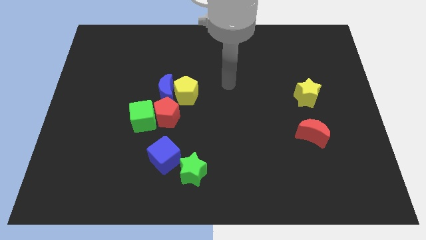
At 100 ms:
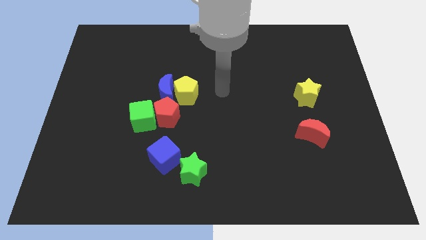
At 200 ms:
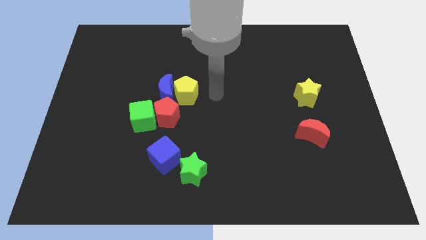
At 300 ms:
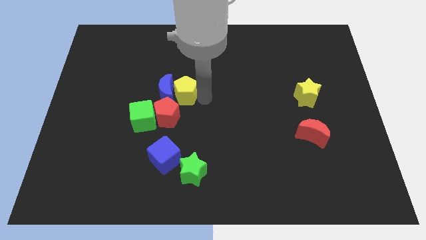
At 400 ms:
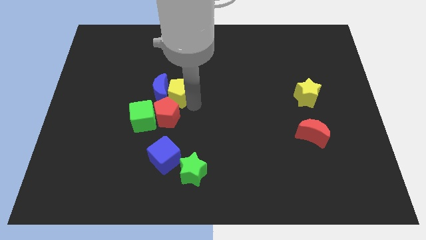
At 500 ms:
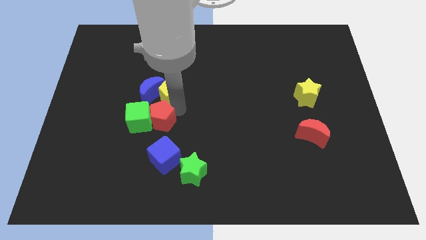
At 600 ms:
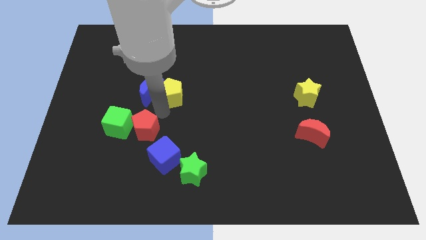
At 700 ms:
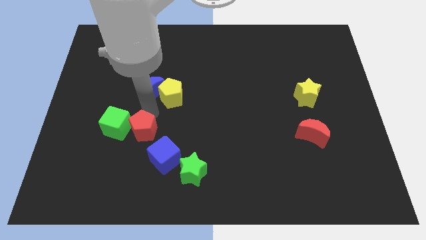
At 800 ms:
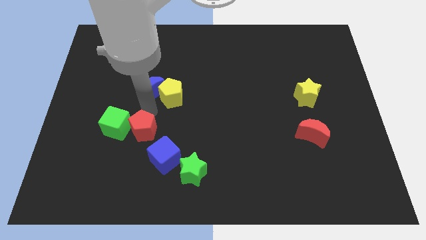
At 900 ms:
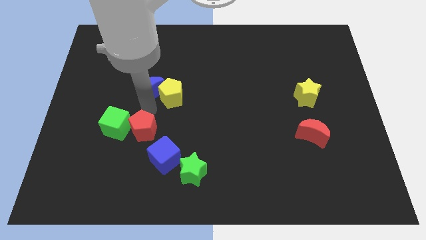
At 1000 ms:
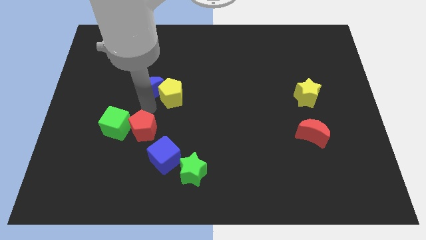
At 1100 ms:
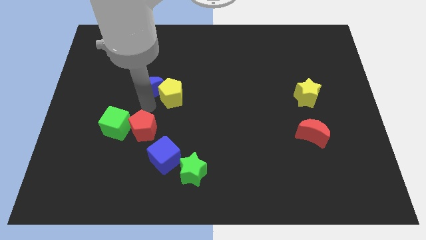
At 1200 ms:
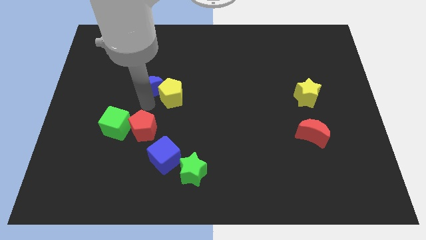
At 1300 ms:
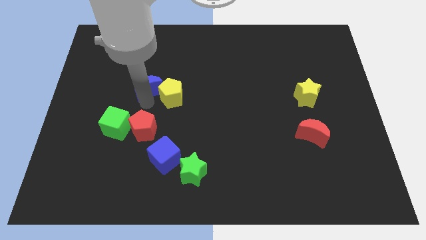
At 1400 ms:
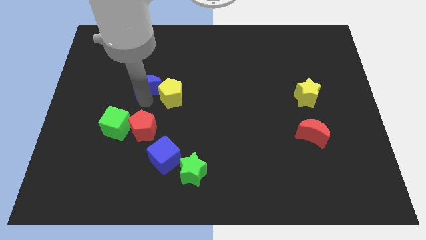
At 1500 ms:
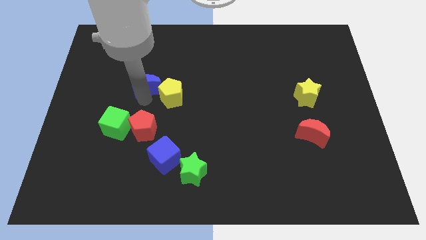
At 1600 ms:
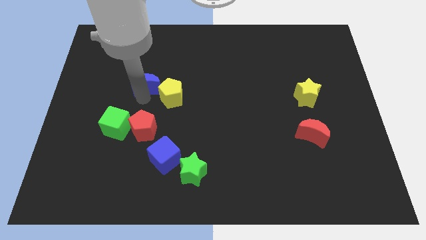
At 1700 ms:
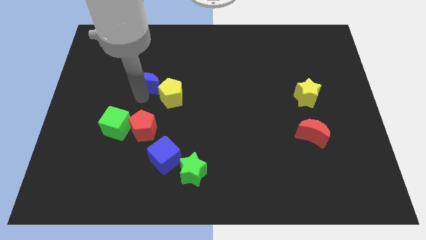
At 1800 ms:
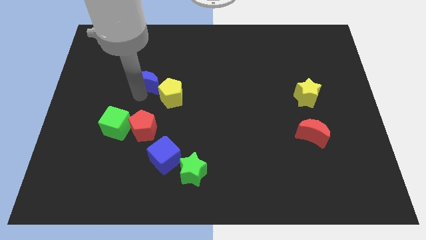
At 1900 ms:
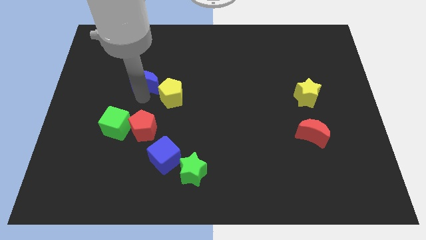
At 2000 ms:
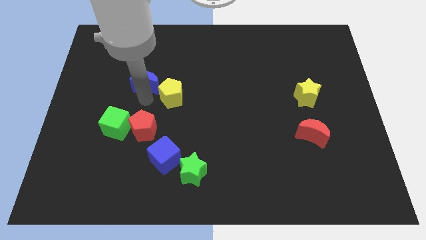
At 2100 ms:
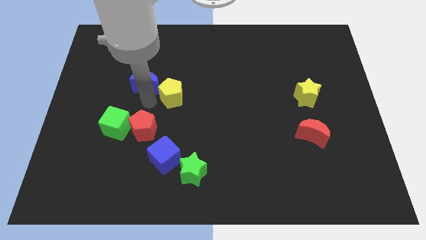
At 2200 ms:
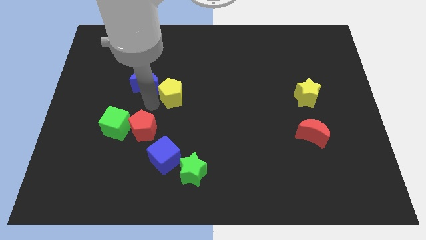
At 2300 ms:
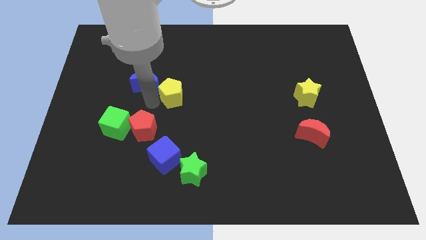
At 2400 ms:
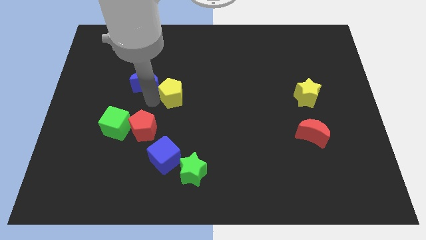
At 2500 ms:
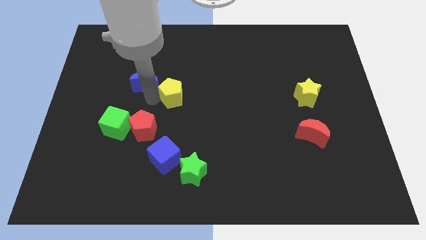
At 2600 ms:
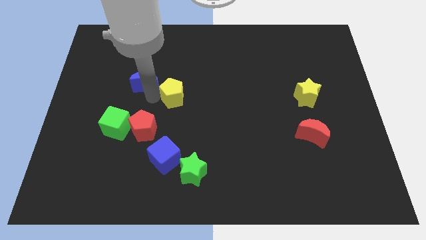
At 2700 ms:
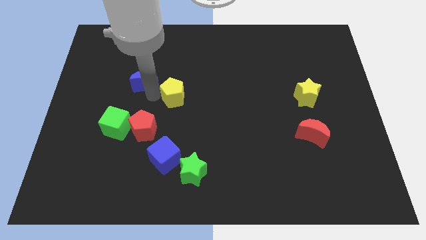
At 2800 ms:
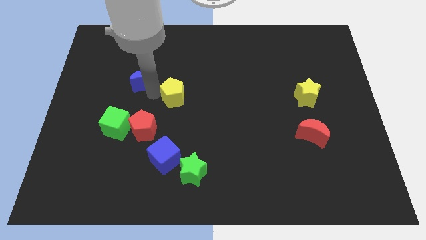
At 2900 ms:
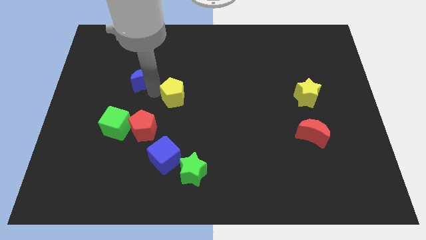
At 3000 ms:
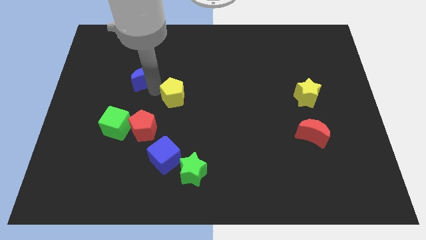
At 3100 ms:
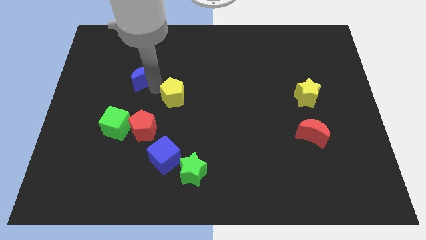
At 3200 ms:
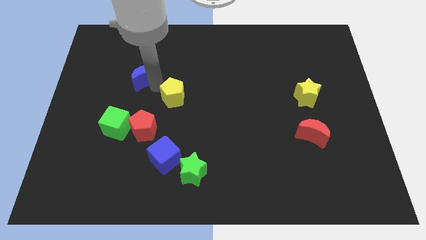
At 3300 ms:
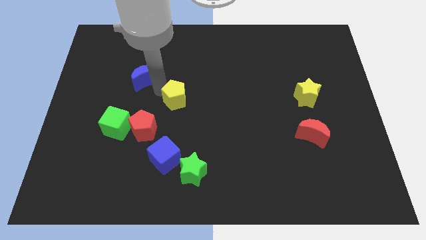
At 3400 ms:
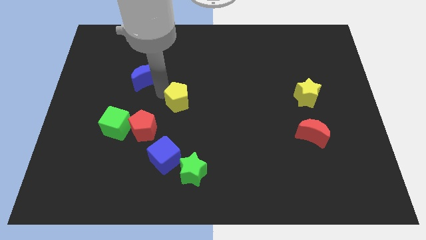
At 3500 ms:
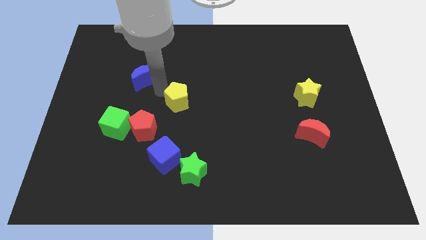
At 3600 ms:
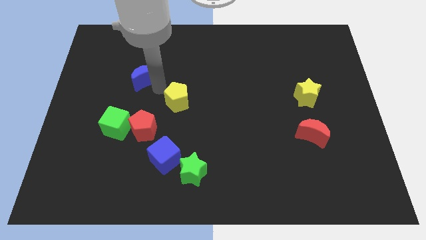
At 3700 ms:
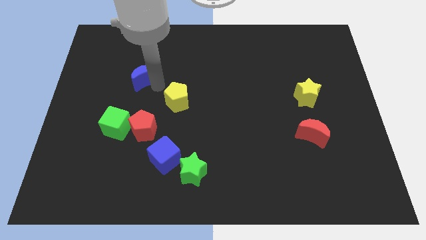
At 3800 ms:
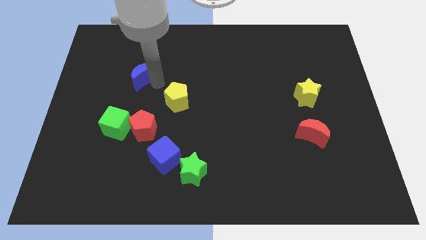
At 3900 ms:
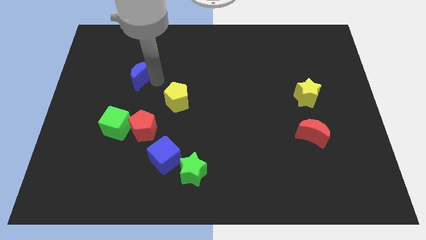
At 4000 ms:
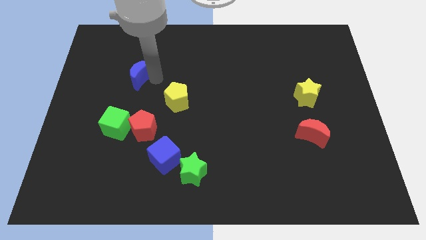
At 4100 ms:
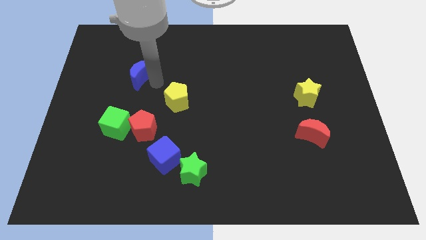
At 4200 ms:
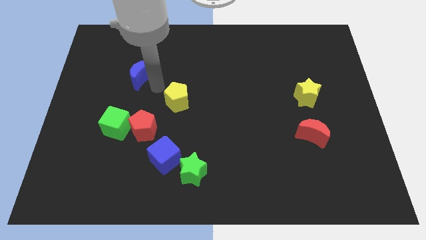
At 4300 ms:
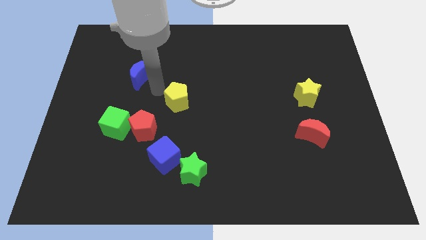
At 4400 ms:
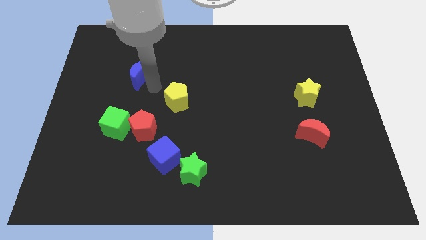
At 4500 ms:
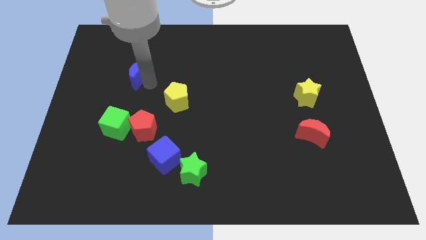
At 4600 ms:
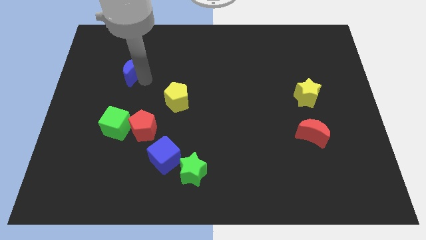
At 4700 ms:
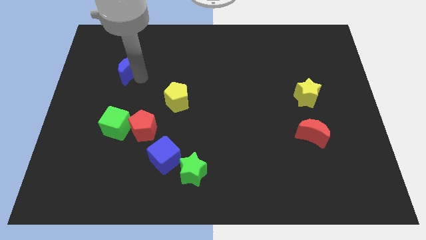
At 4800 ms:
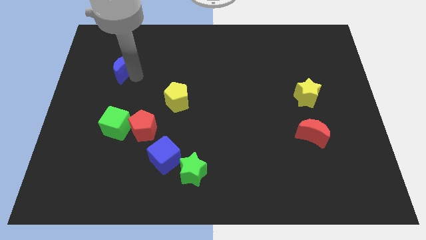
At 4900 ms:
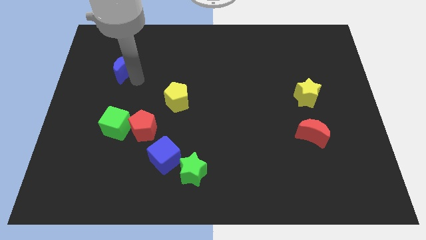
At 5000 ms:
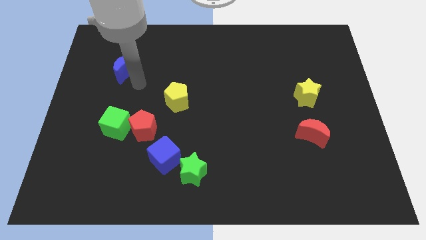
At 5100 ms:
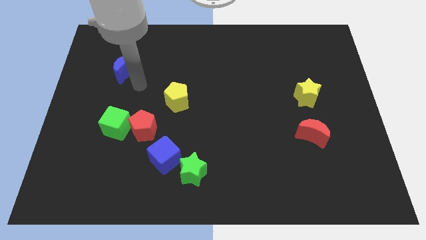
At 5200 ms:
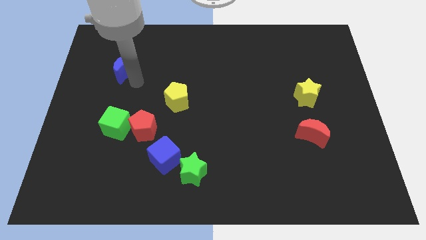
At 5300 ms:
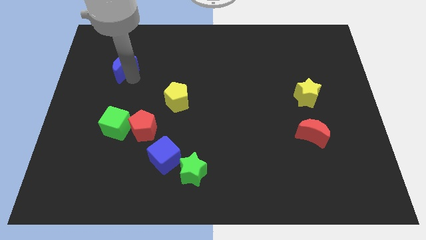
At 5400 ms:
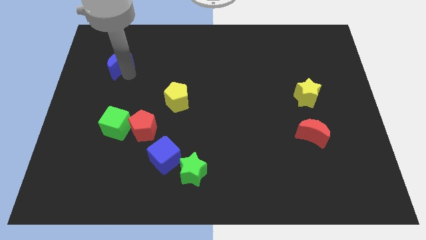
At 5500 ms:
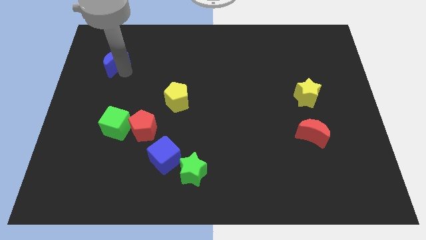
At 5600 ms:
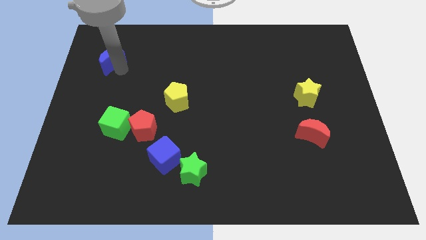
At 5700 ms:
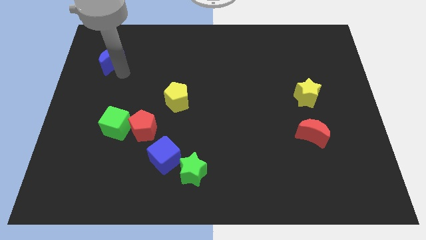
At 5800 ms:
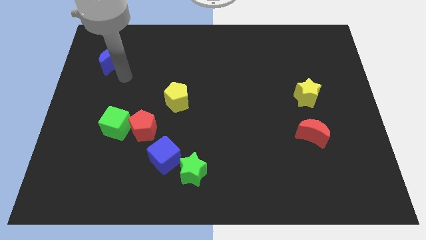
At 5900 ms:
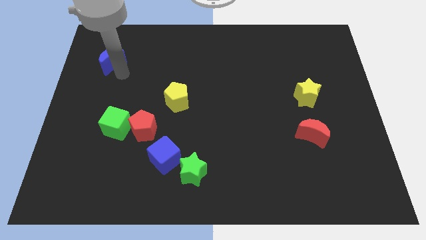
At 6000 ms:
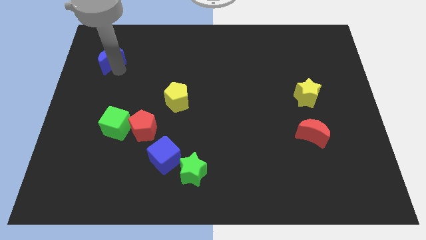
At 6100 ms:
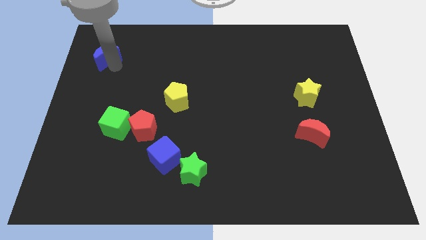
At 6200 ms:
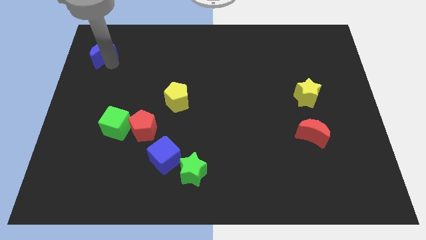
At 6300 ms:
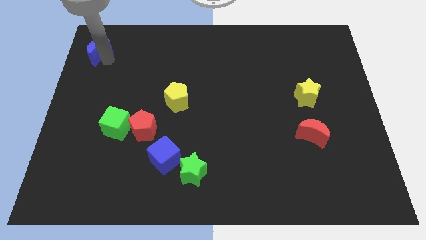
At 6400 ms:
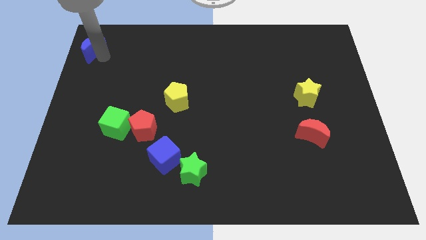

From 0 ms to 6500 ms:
move the blue moon to the top left of the board

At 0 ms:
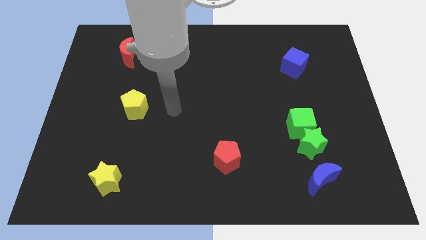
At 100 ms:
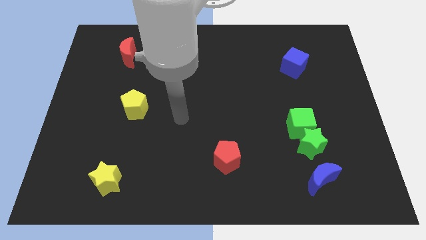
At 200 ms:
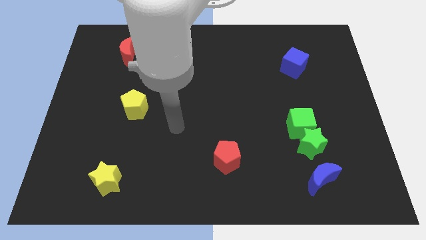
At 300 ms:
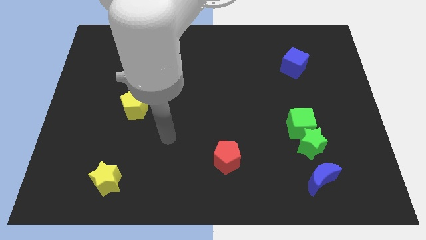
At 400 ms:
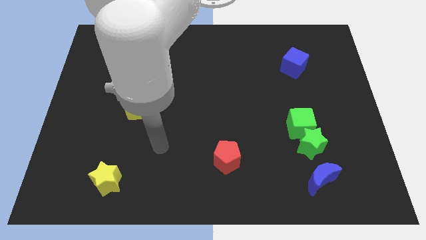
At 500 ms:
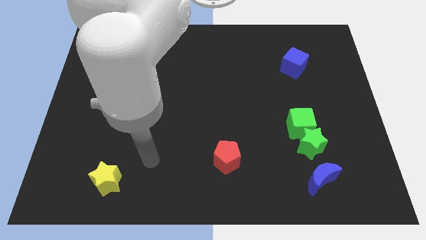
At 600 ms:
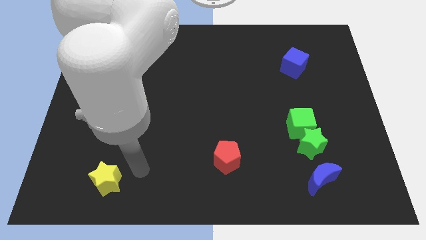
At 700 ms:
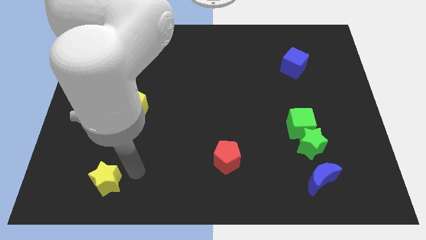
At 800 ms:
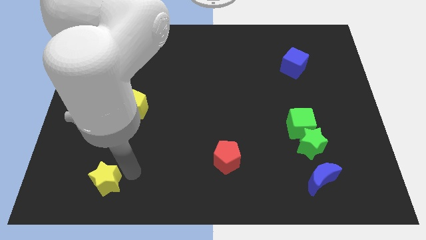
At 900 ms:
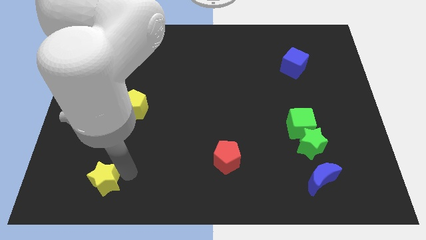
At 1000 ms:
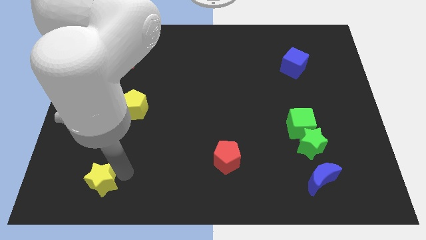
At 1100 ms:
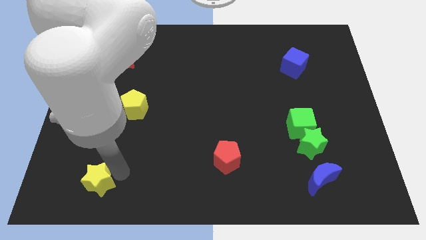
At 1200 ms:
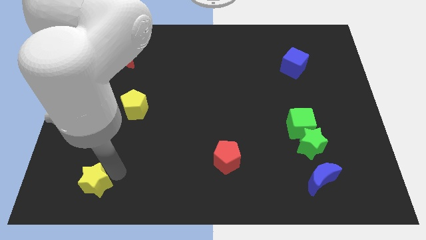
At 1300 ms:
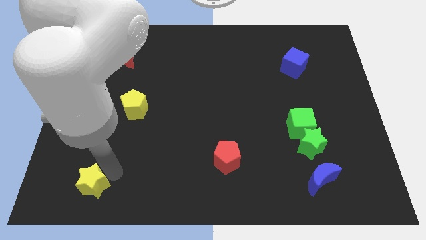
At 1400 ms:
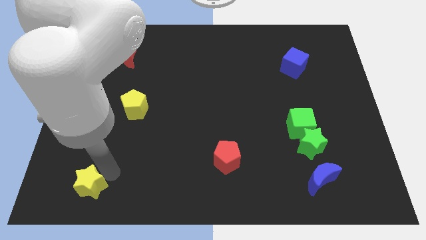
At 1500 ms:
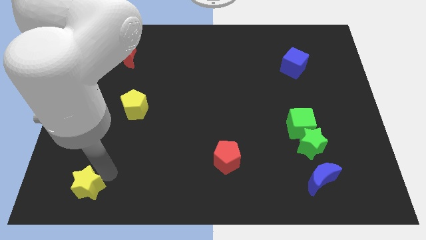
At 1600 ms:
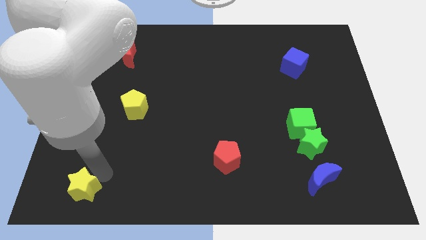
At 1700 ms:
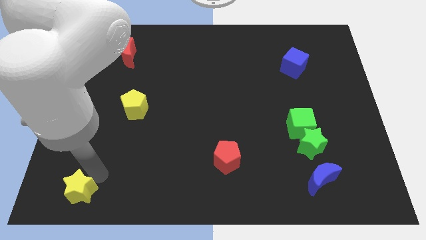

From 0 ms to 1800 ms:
slide the yellow star to the bottom left of the board
